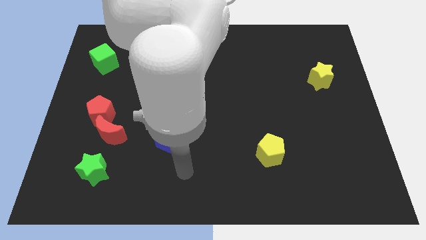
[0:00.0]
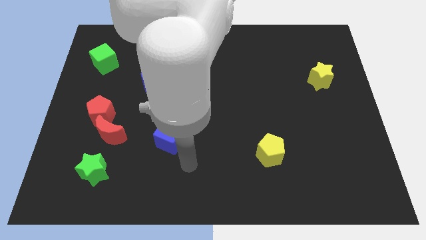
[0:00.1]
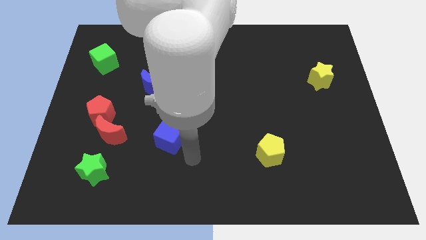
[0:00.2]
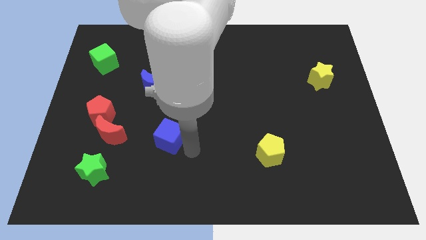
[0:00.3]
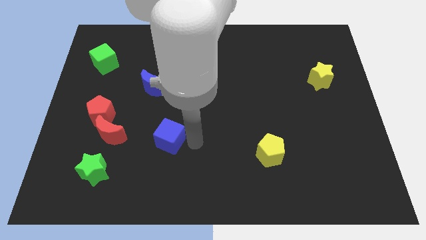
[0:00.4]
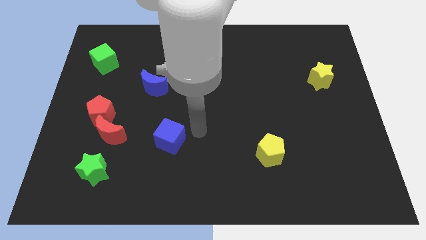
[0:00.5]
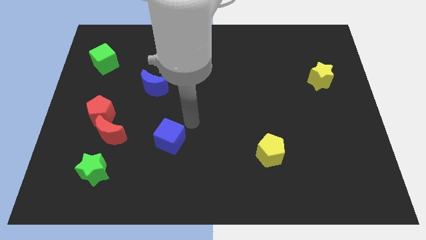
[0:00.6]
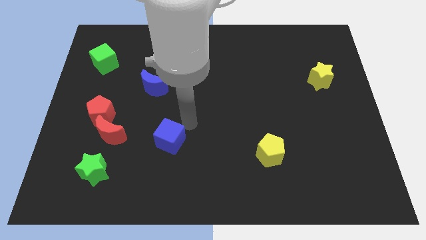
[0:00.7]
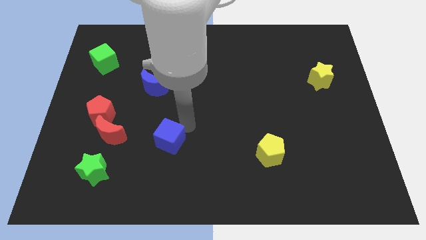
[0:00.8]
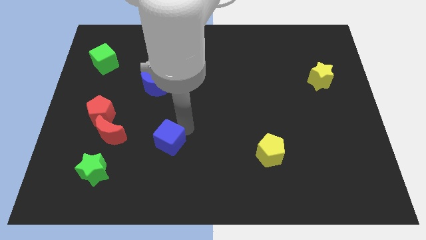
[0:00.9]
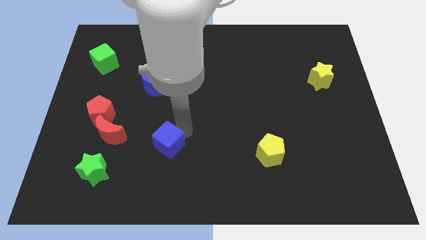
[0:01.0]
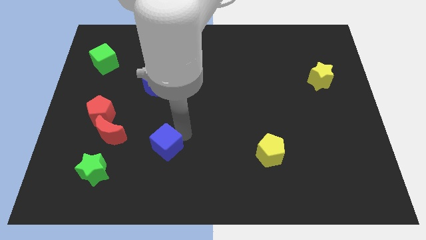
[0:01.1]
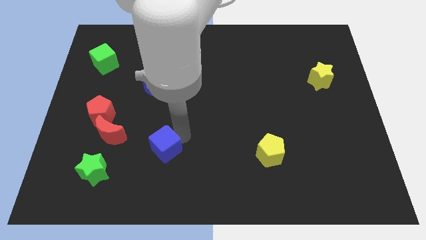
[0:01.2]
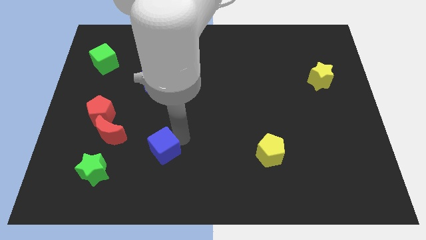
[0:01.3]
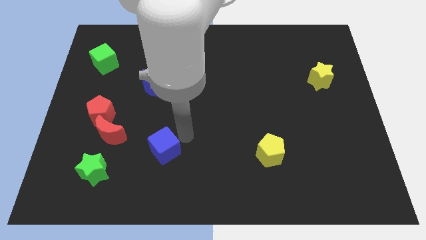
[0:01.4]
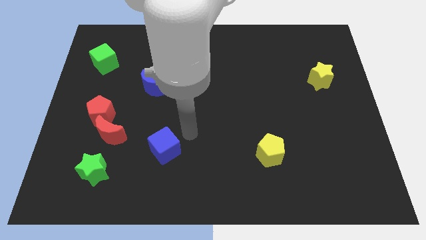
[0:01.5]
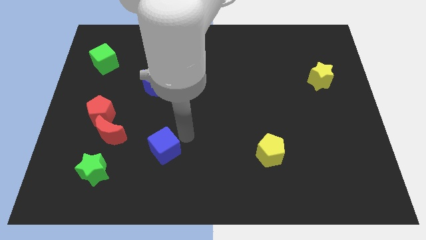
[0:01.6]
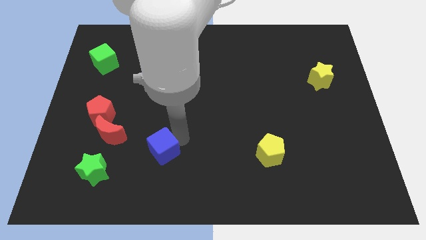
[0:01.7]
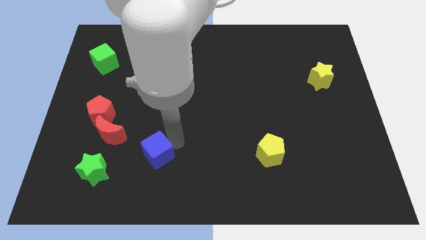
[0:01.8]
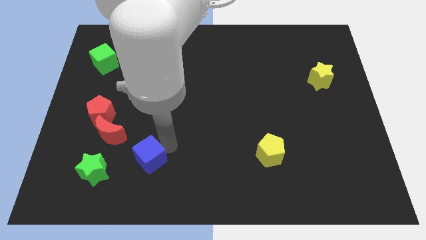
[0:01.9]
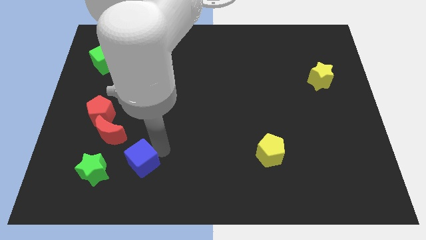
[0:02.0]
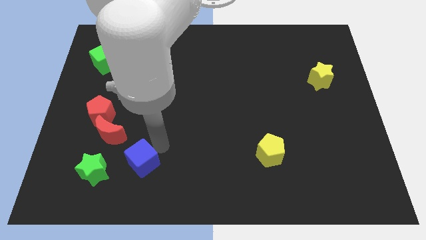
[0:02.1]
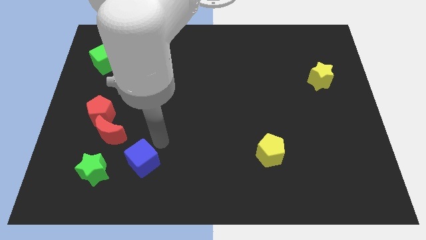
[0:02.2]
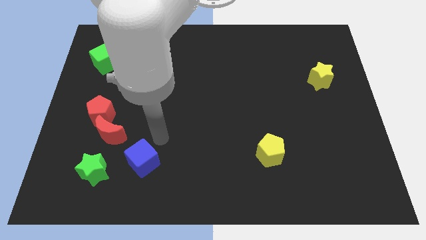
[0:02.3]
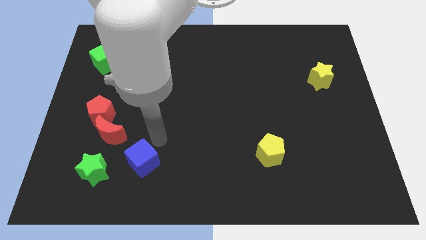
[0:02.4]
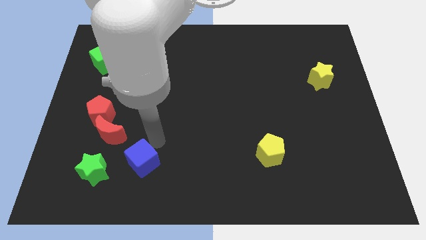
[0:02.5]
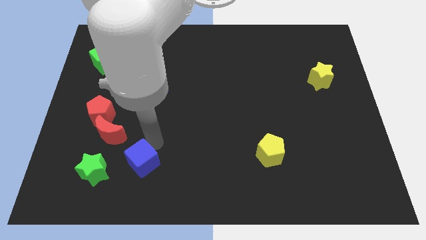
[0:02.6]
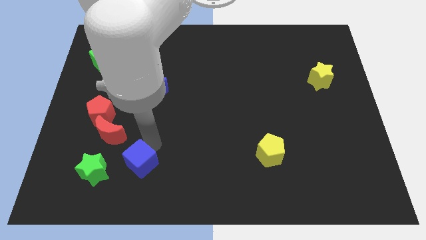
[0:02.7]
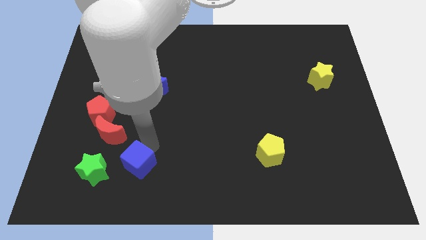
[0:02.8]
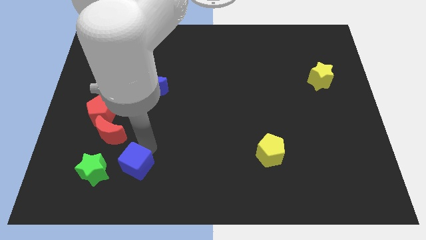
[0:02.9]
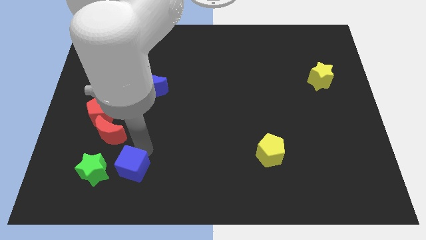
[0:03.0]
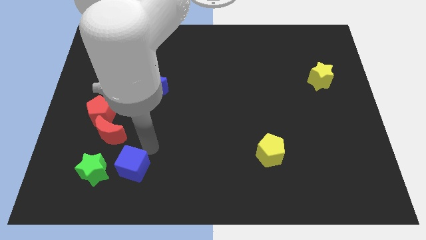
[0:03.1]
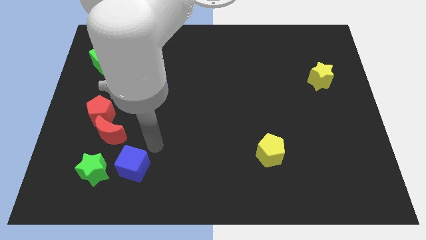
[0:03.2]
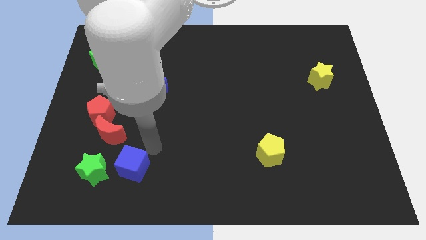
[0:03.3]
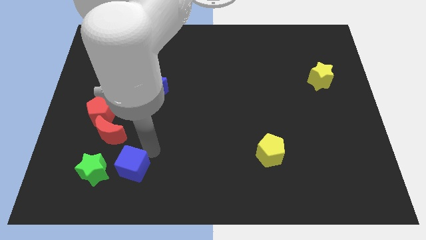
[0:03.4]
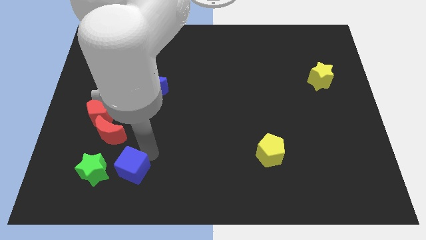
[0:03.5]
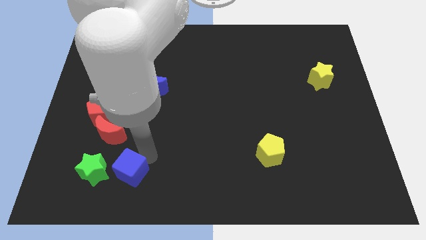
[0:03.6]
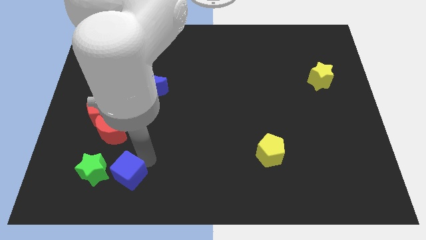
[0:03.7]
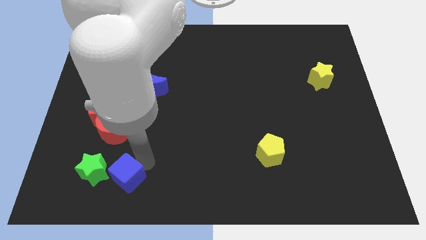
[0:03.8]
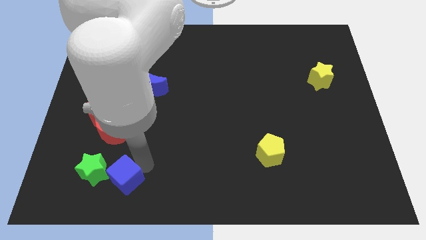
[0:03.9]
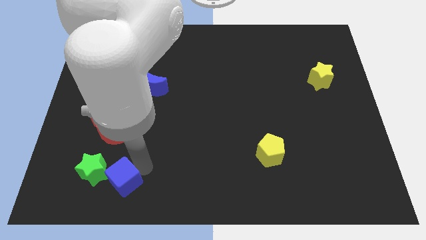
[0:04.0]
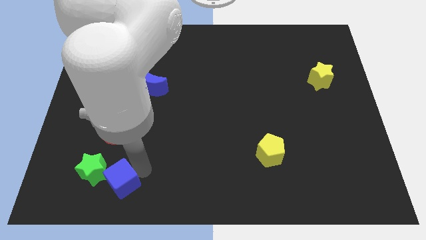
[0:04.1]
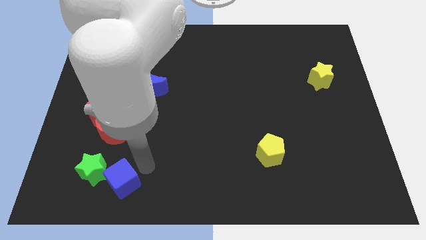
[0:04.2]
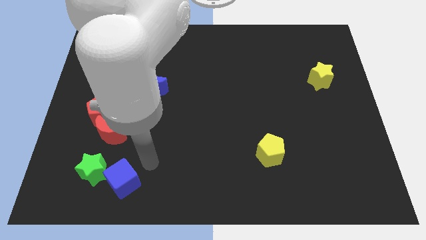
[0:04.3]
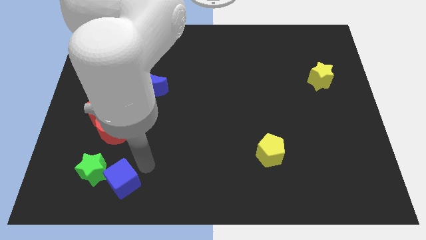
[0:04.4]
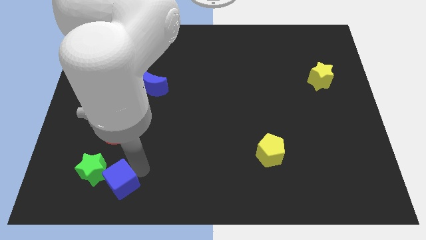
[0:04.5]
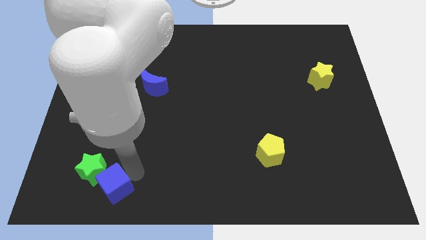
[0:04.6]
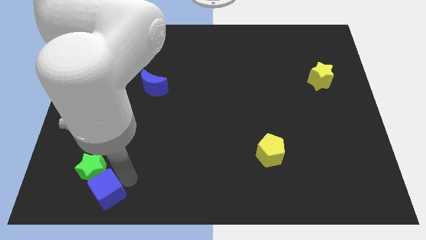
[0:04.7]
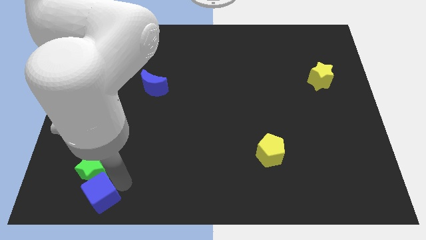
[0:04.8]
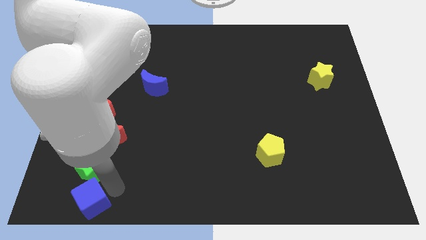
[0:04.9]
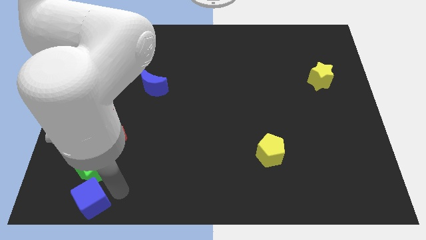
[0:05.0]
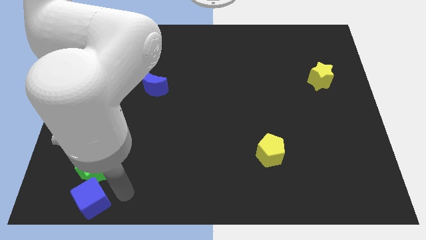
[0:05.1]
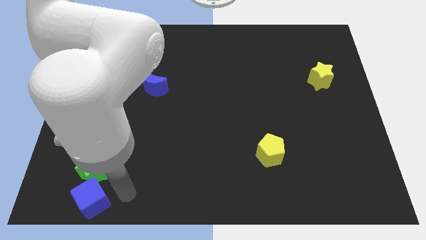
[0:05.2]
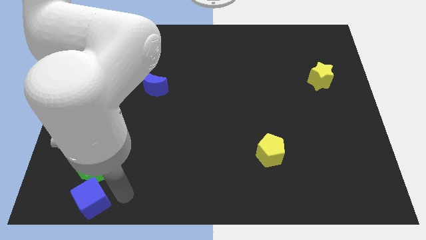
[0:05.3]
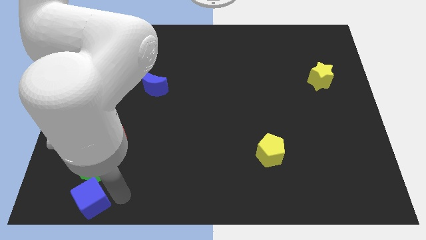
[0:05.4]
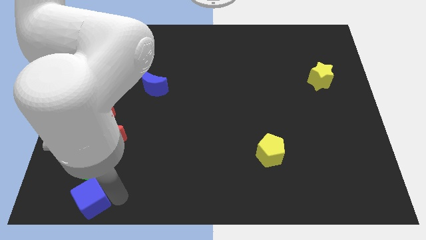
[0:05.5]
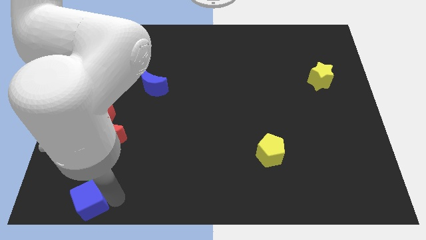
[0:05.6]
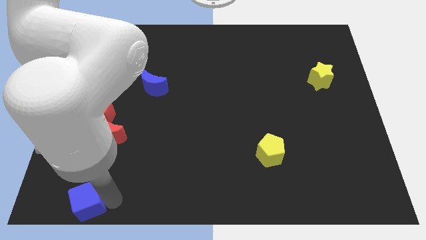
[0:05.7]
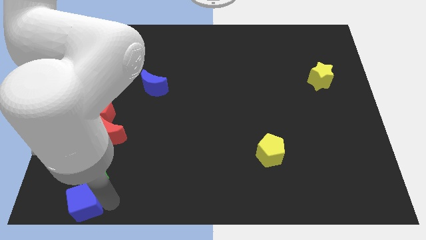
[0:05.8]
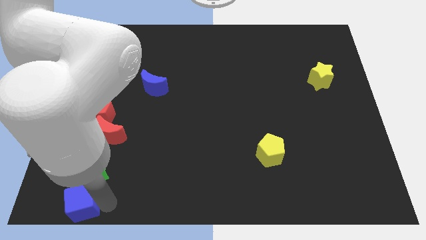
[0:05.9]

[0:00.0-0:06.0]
push the blue cube to the lower left corner
